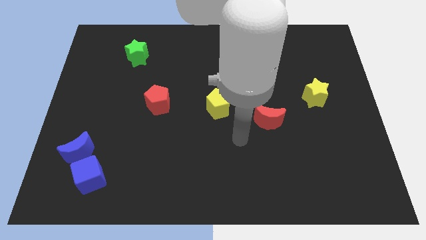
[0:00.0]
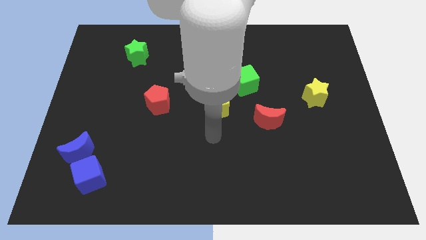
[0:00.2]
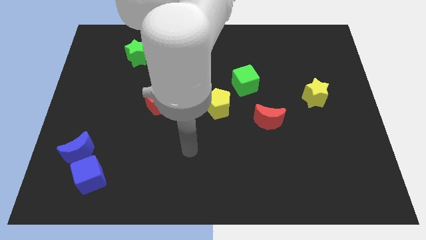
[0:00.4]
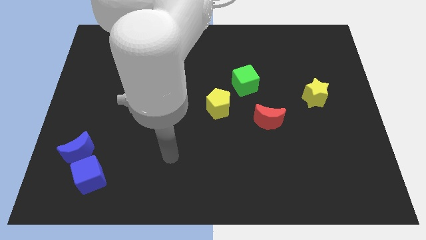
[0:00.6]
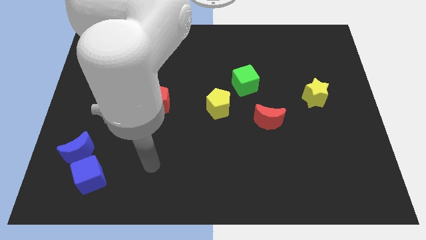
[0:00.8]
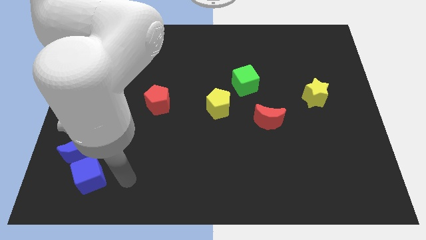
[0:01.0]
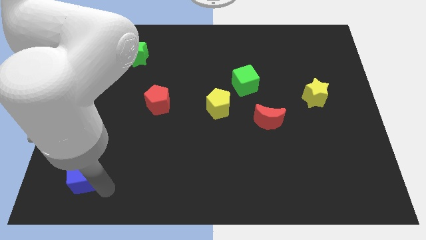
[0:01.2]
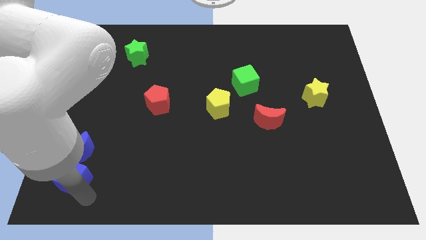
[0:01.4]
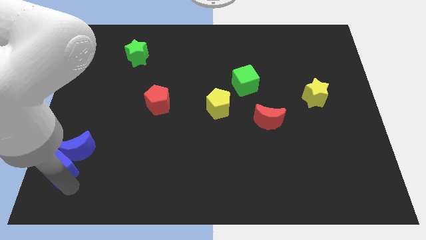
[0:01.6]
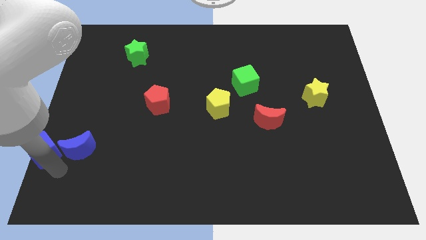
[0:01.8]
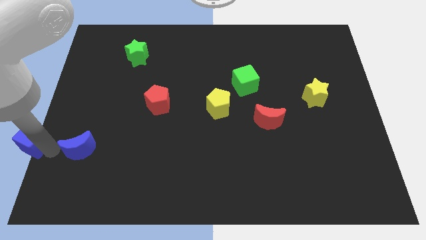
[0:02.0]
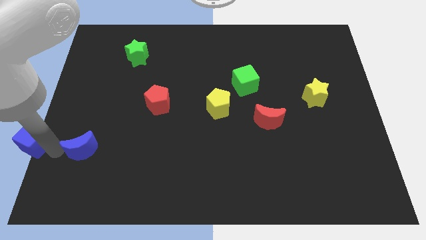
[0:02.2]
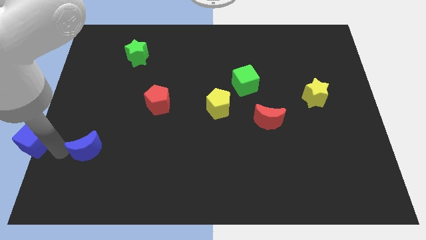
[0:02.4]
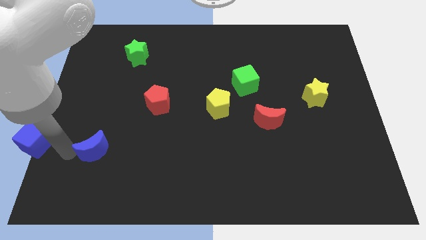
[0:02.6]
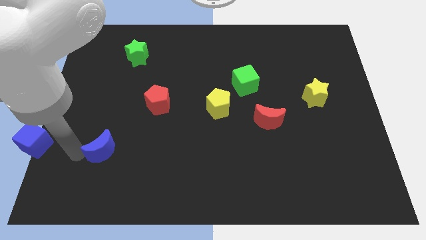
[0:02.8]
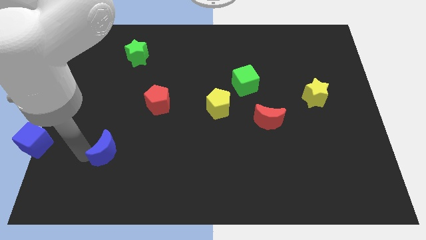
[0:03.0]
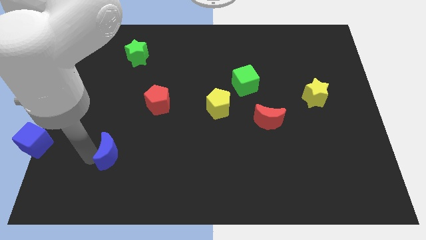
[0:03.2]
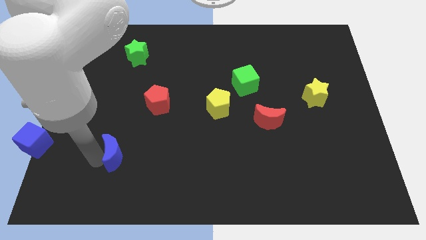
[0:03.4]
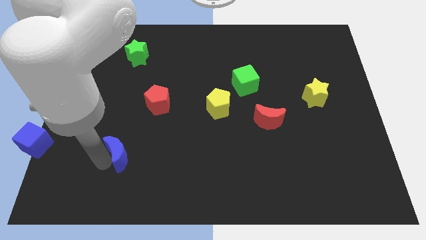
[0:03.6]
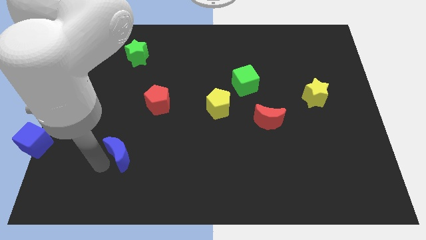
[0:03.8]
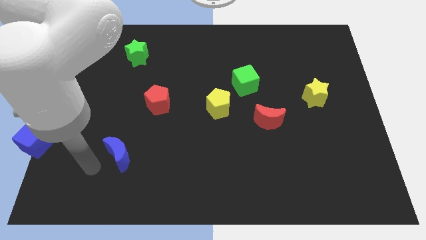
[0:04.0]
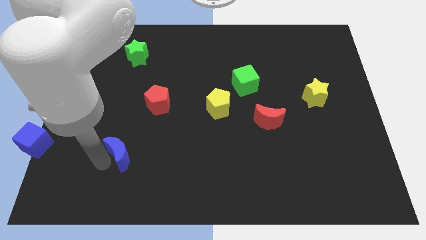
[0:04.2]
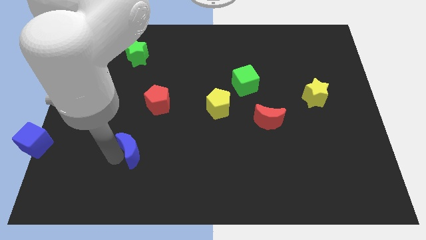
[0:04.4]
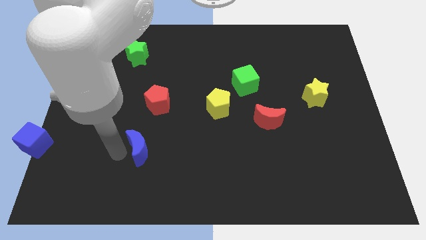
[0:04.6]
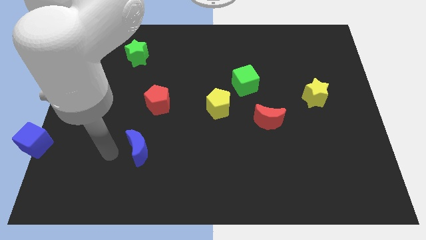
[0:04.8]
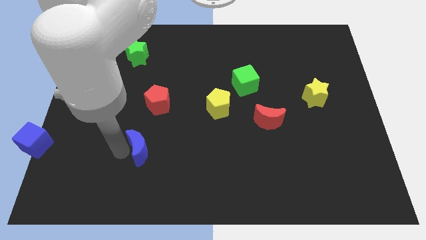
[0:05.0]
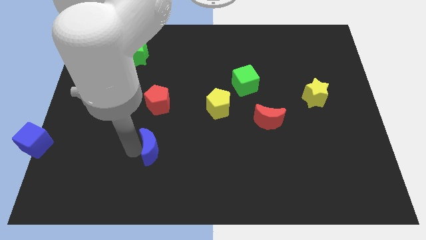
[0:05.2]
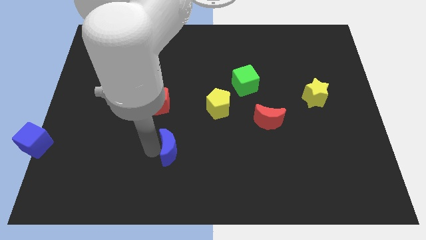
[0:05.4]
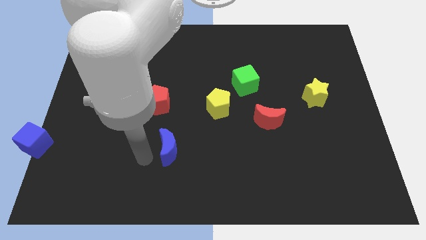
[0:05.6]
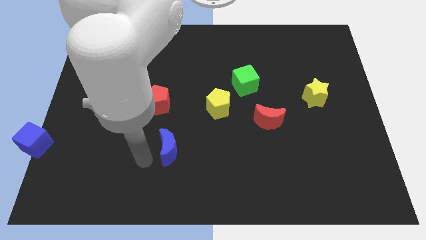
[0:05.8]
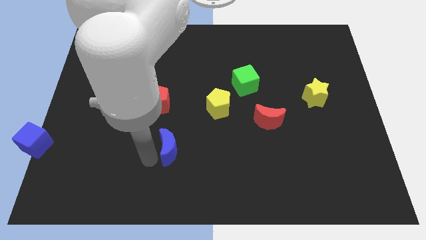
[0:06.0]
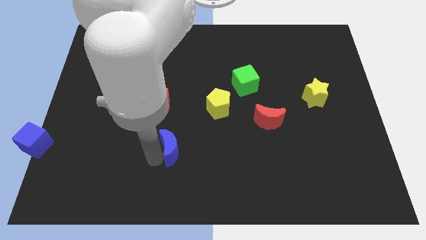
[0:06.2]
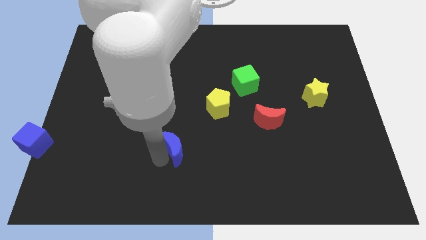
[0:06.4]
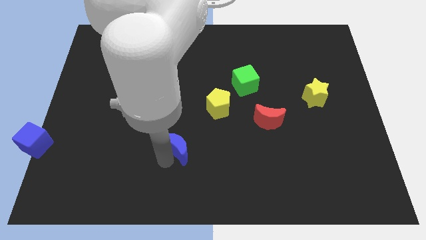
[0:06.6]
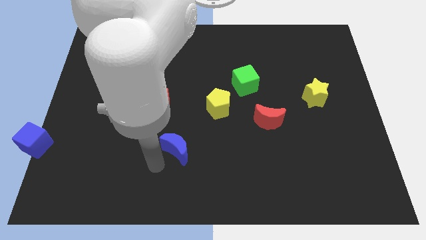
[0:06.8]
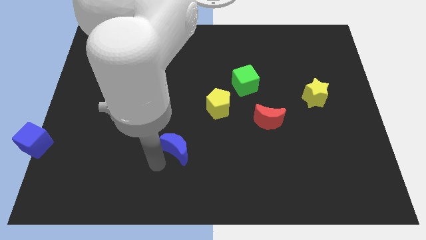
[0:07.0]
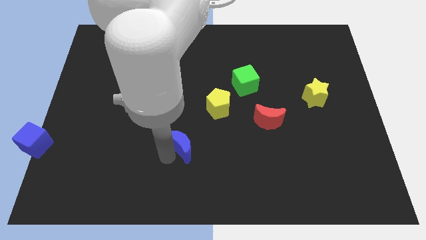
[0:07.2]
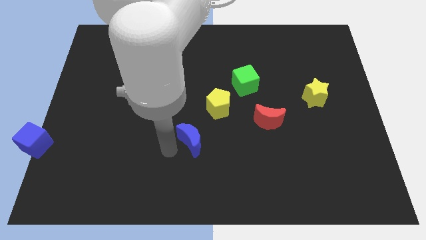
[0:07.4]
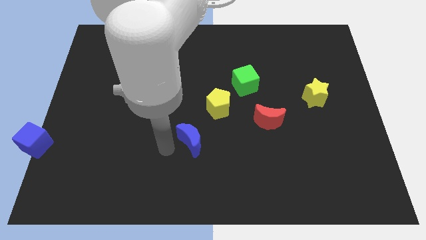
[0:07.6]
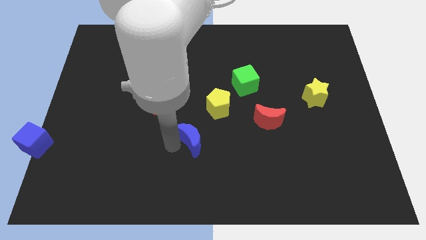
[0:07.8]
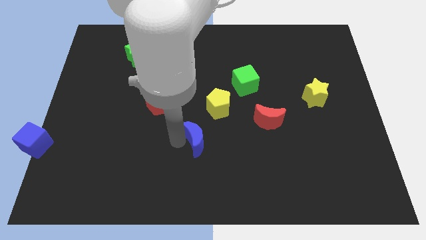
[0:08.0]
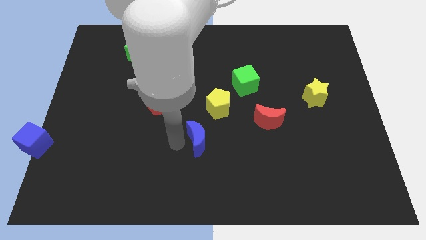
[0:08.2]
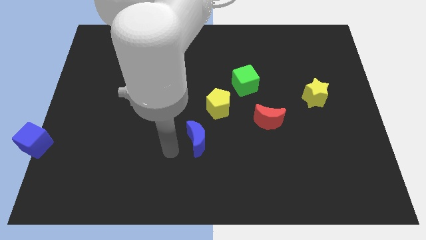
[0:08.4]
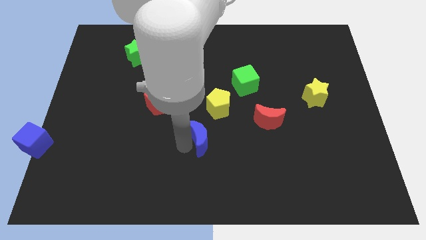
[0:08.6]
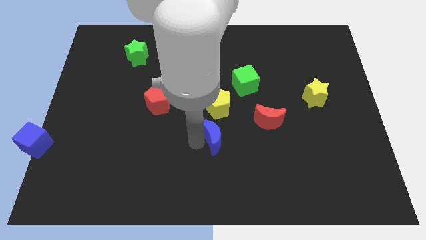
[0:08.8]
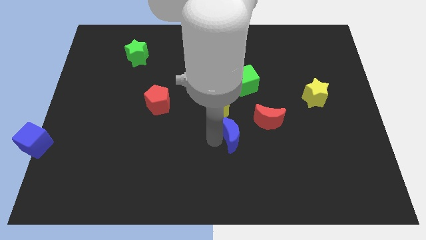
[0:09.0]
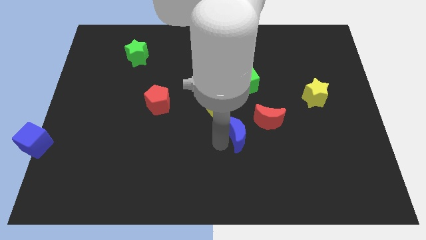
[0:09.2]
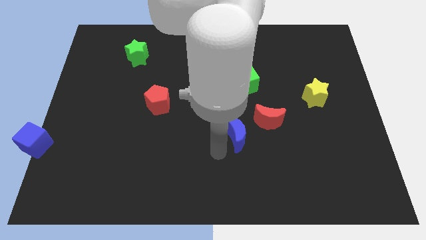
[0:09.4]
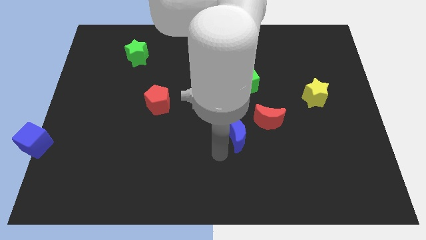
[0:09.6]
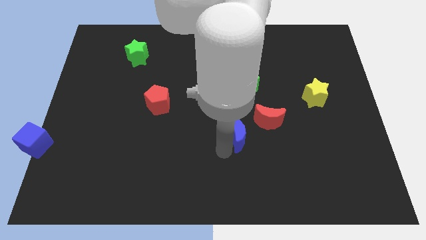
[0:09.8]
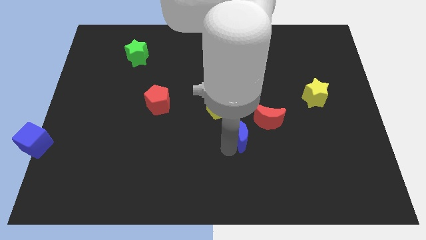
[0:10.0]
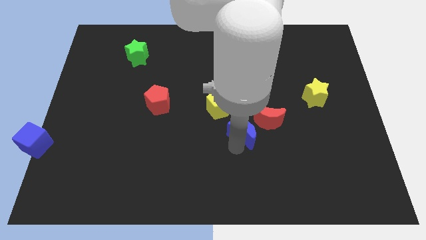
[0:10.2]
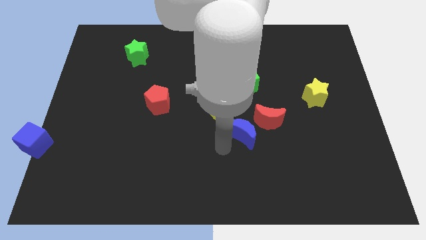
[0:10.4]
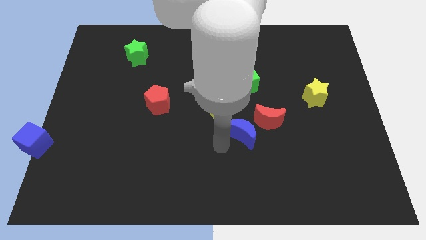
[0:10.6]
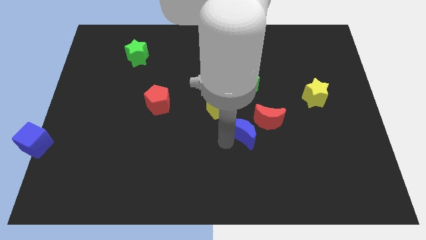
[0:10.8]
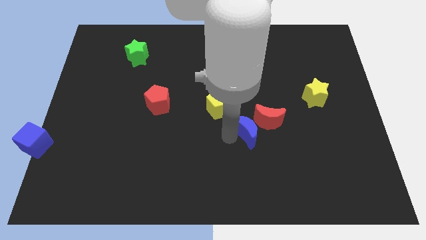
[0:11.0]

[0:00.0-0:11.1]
slide the blue moon next to the red moon

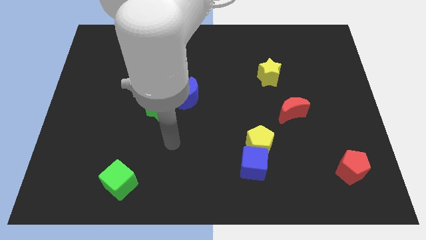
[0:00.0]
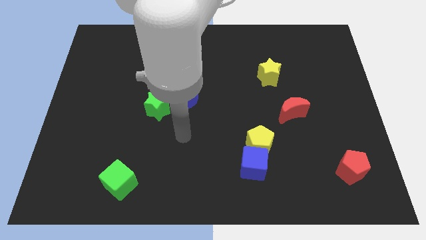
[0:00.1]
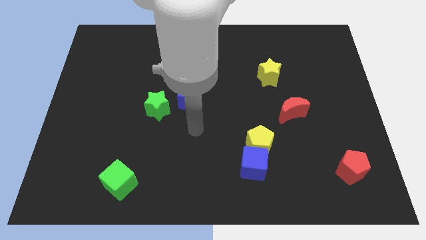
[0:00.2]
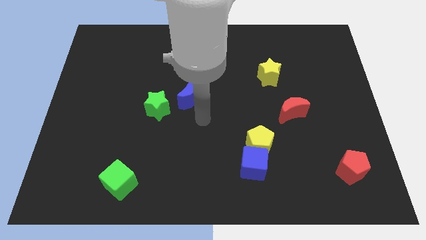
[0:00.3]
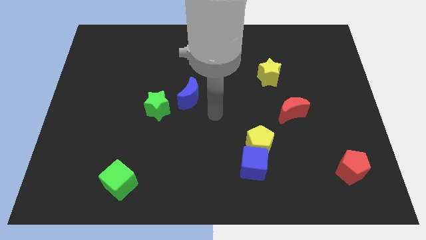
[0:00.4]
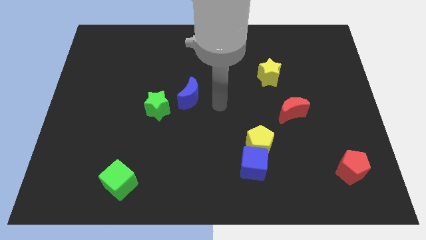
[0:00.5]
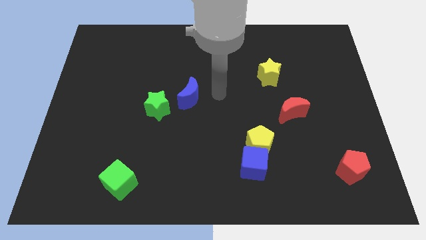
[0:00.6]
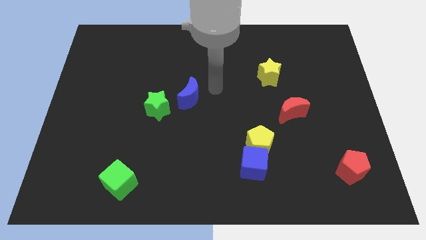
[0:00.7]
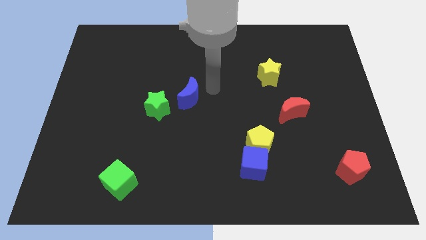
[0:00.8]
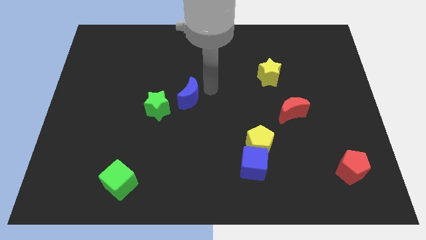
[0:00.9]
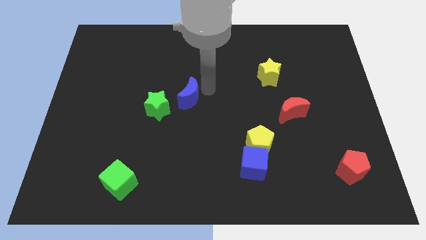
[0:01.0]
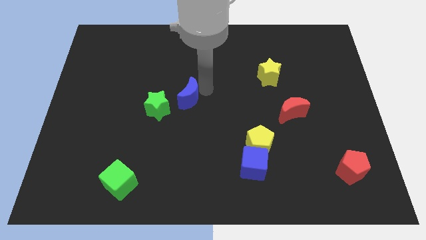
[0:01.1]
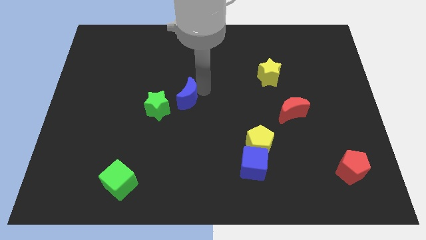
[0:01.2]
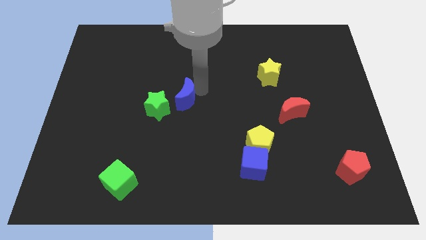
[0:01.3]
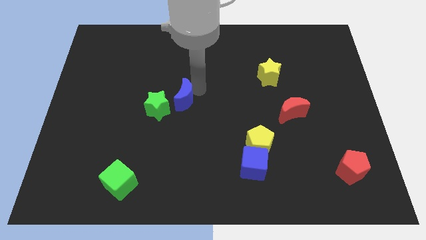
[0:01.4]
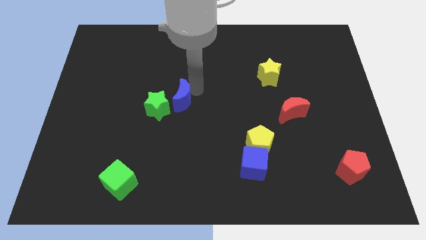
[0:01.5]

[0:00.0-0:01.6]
slide the blue moon next to the green star
